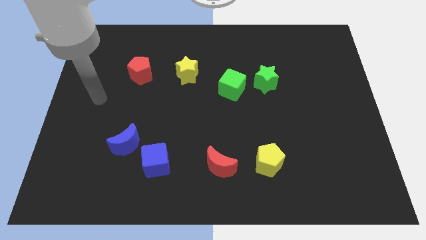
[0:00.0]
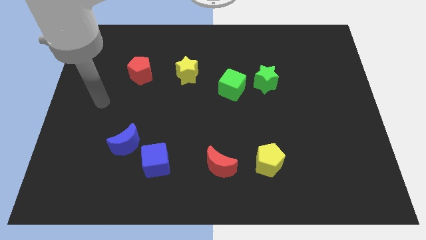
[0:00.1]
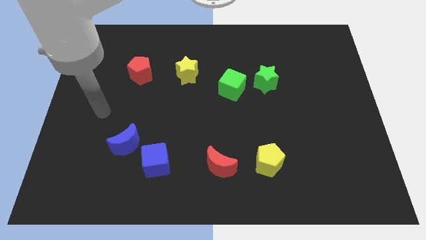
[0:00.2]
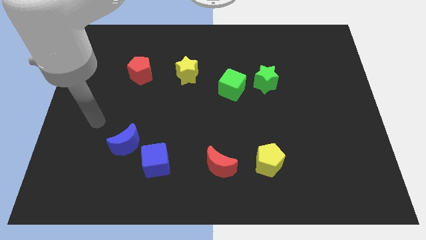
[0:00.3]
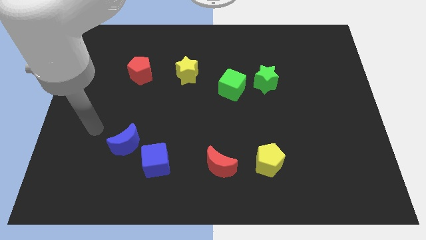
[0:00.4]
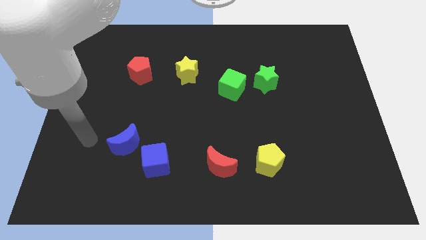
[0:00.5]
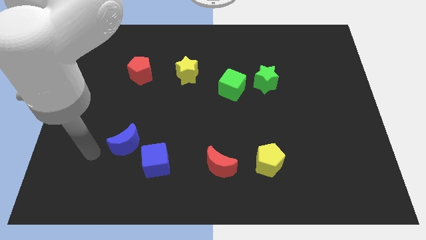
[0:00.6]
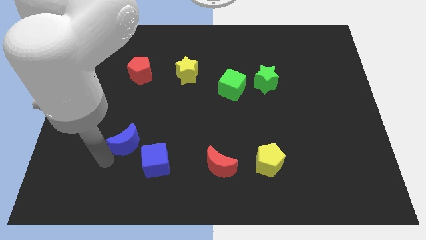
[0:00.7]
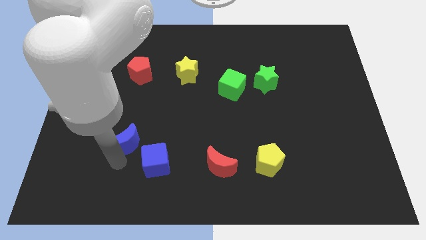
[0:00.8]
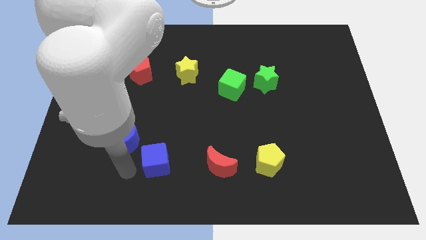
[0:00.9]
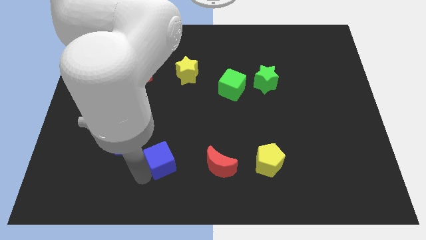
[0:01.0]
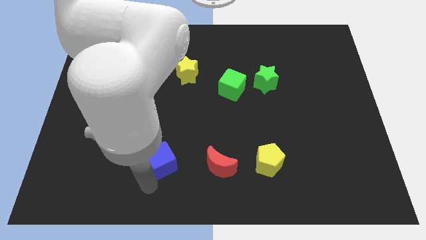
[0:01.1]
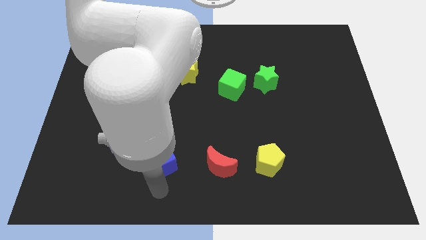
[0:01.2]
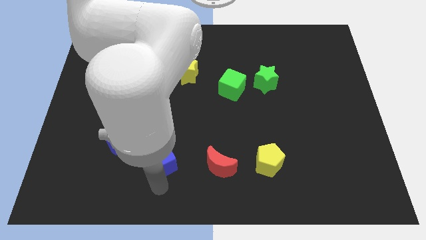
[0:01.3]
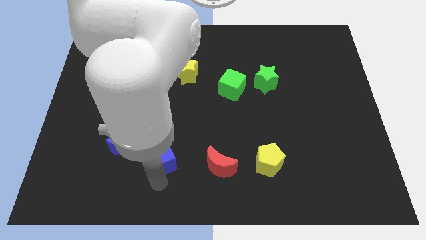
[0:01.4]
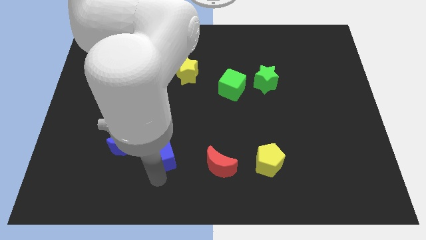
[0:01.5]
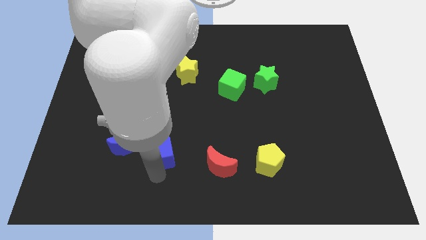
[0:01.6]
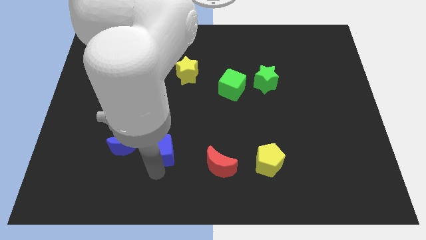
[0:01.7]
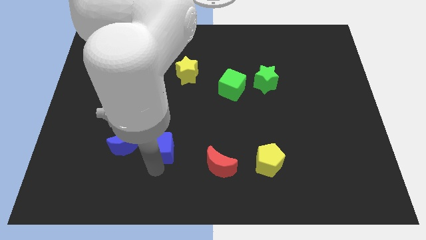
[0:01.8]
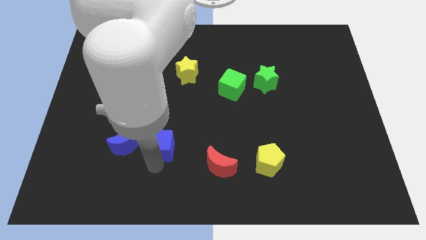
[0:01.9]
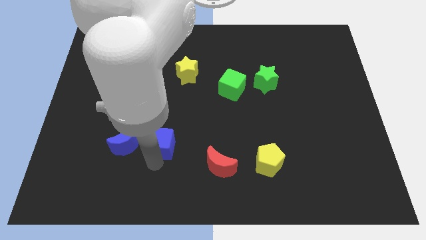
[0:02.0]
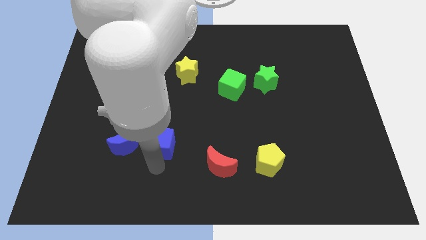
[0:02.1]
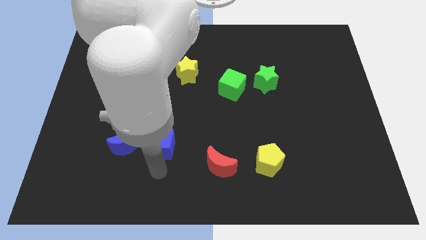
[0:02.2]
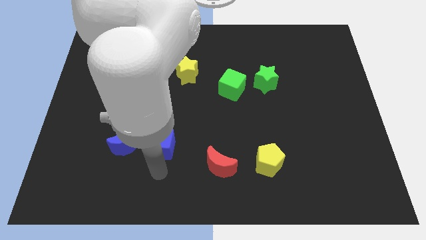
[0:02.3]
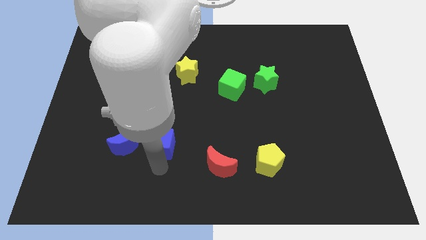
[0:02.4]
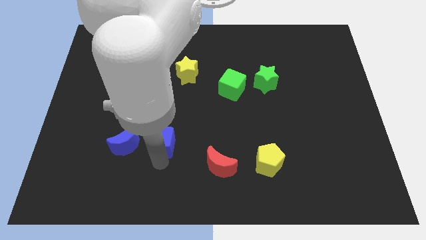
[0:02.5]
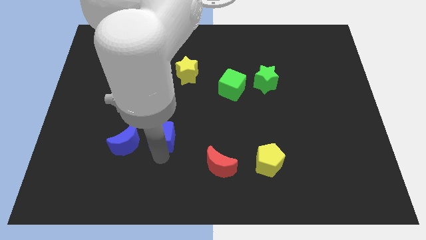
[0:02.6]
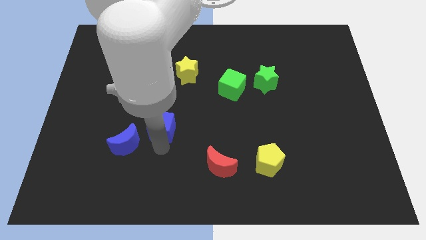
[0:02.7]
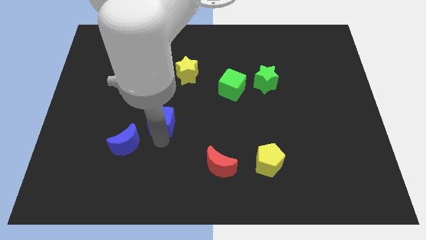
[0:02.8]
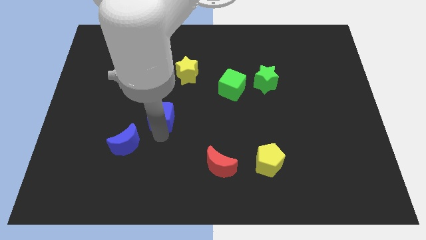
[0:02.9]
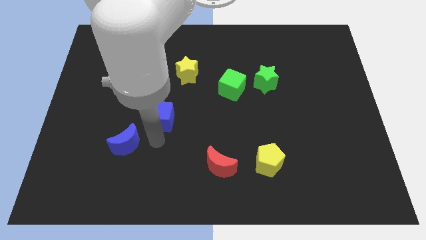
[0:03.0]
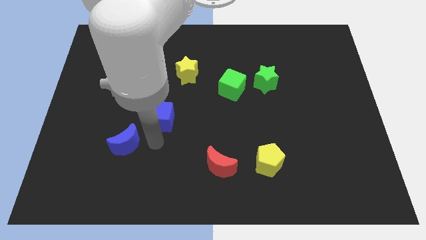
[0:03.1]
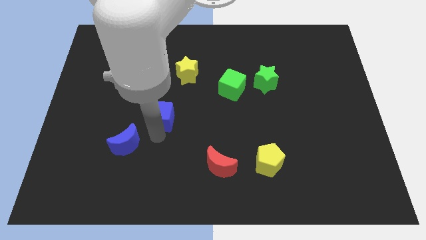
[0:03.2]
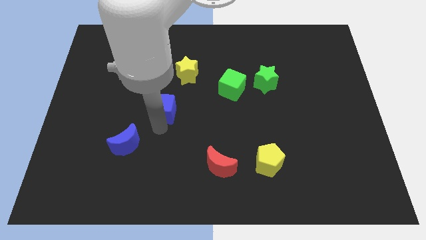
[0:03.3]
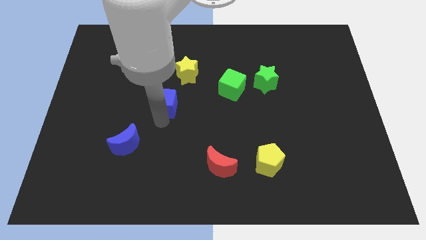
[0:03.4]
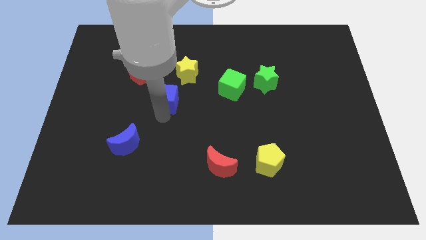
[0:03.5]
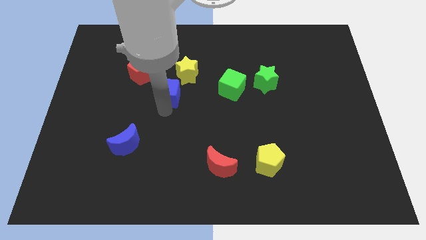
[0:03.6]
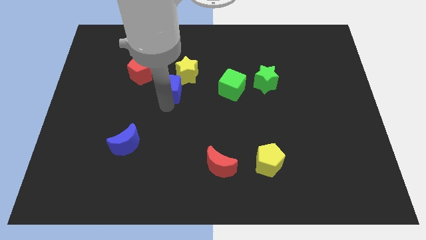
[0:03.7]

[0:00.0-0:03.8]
push the blue cube up

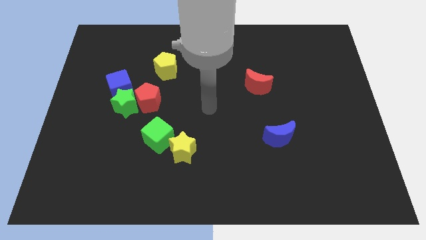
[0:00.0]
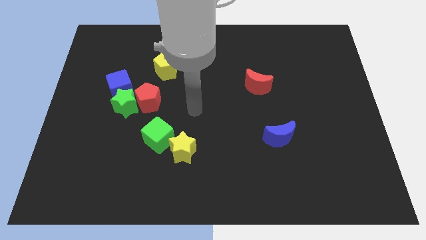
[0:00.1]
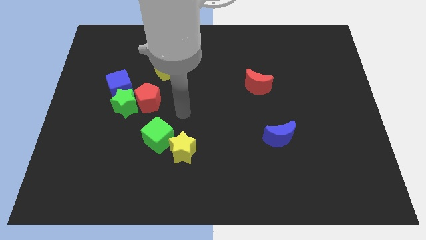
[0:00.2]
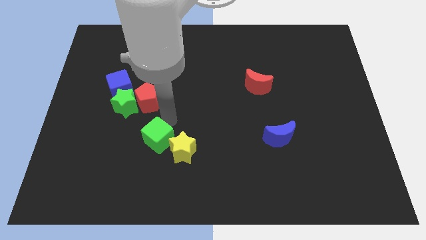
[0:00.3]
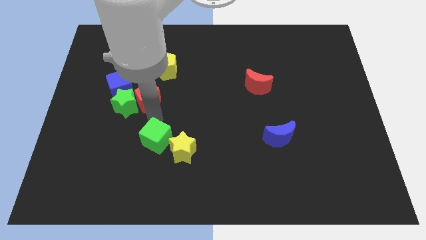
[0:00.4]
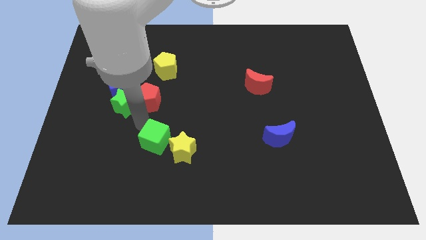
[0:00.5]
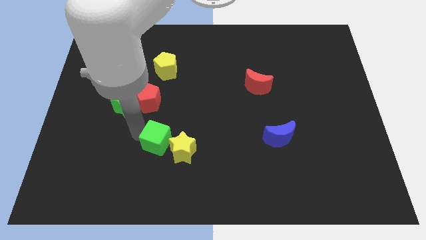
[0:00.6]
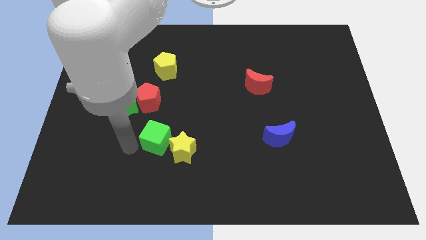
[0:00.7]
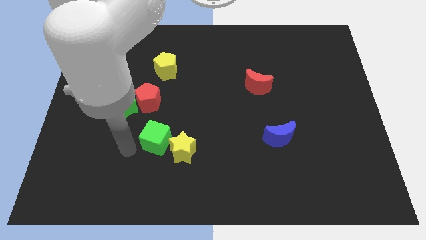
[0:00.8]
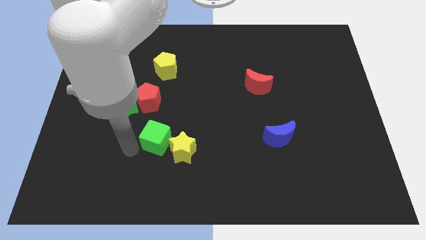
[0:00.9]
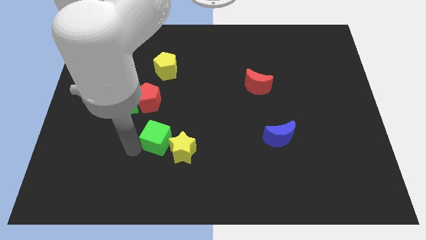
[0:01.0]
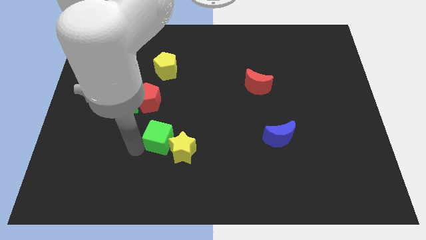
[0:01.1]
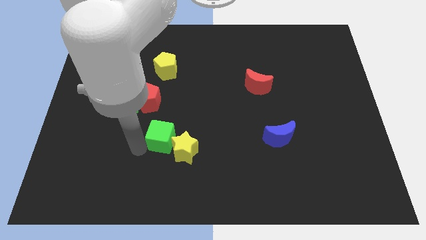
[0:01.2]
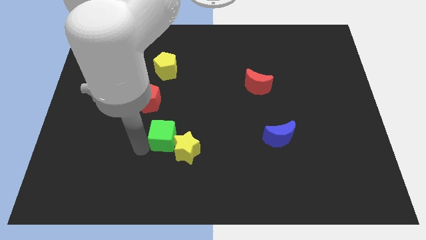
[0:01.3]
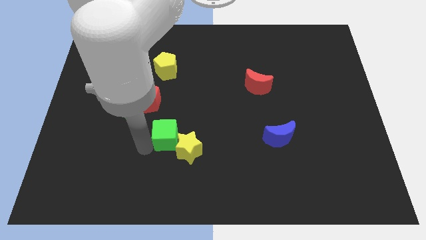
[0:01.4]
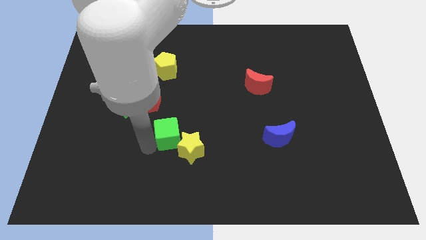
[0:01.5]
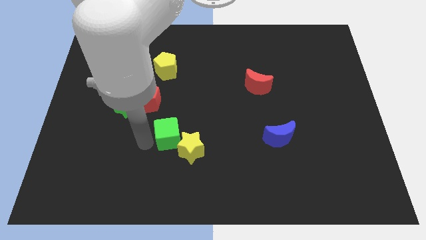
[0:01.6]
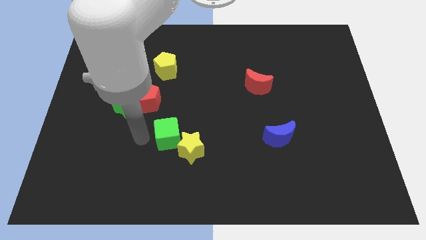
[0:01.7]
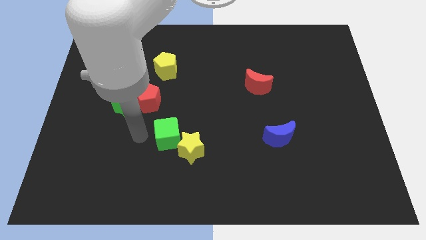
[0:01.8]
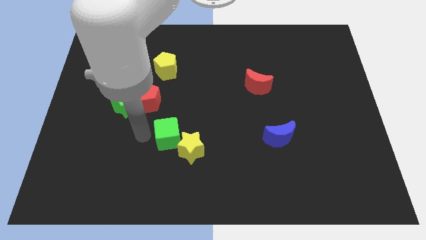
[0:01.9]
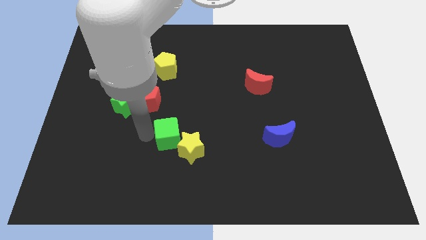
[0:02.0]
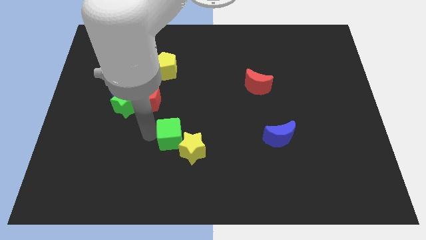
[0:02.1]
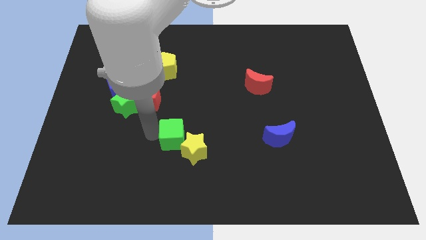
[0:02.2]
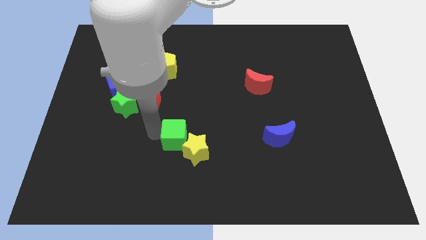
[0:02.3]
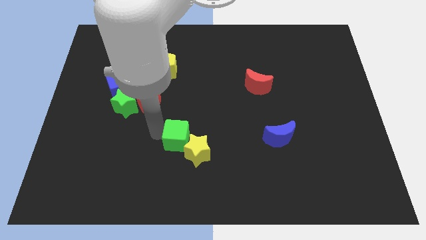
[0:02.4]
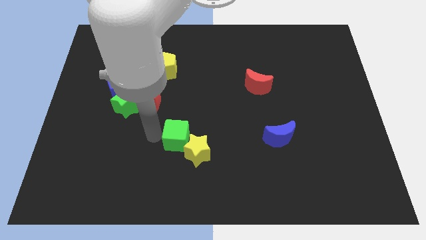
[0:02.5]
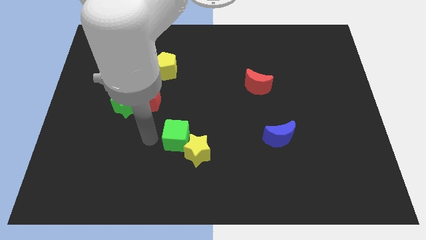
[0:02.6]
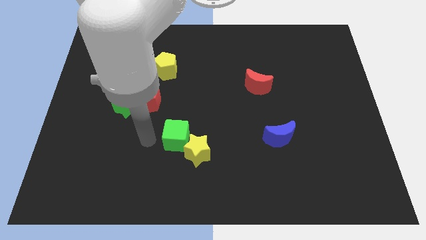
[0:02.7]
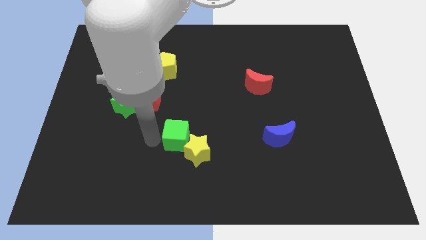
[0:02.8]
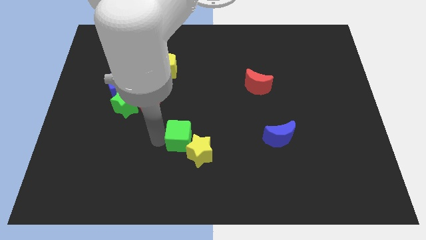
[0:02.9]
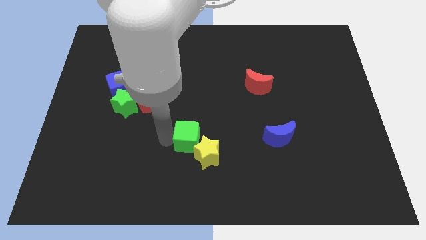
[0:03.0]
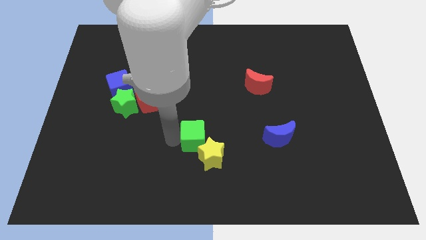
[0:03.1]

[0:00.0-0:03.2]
slightly slide the green cube right

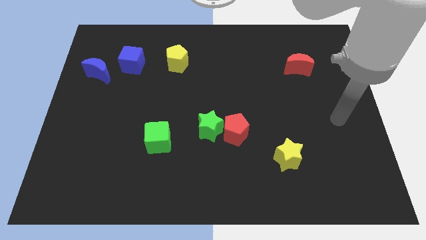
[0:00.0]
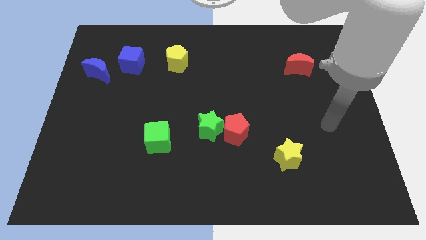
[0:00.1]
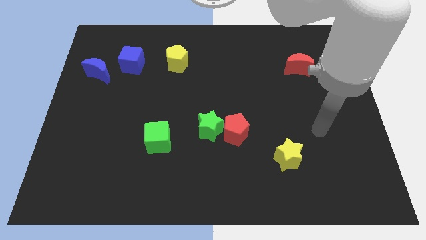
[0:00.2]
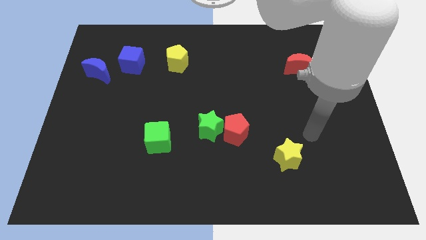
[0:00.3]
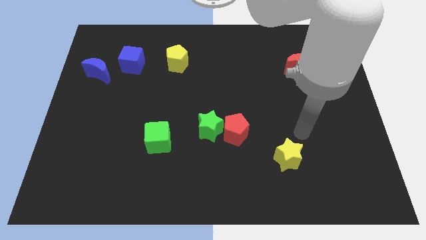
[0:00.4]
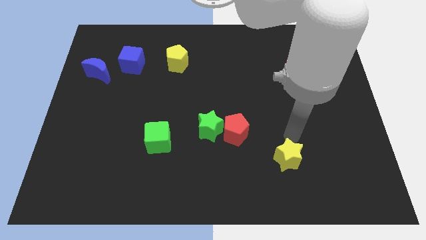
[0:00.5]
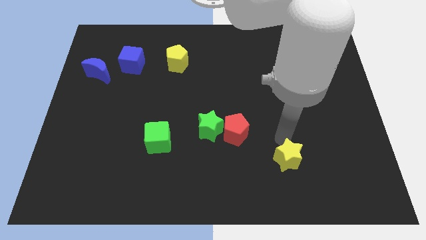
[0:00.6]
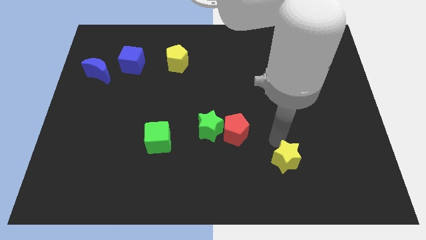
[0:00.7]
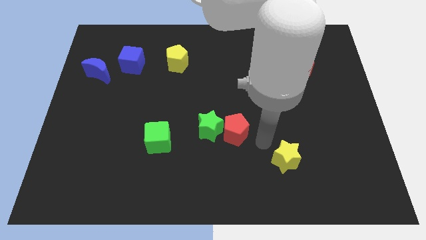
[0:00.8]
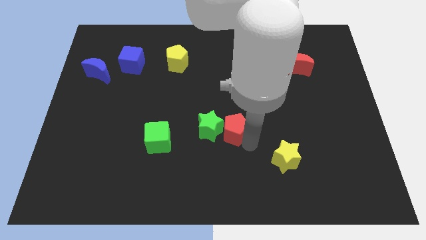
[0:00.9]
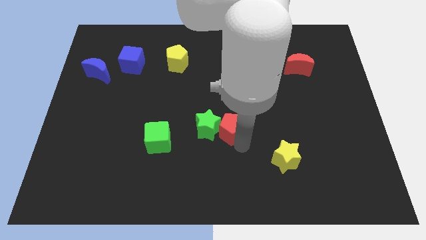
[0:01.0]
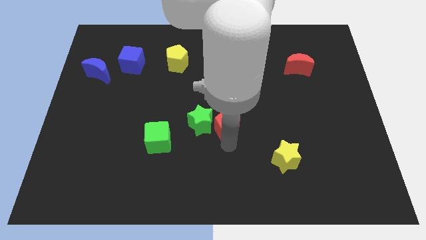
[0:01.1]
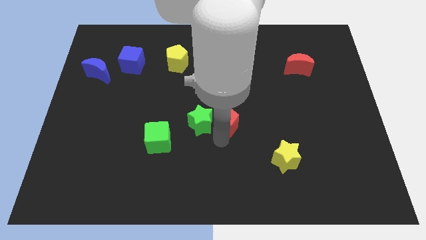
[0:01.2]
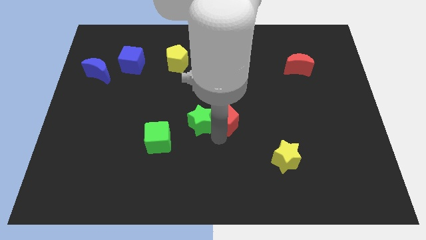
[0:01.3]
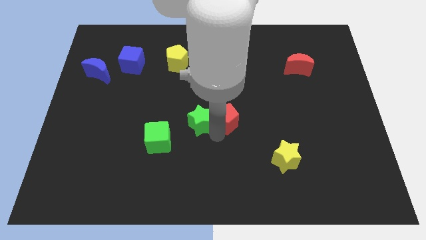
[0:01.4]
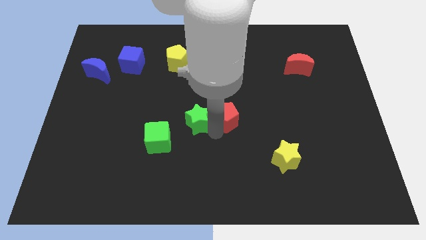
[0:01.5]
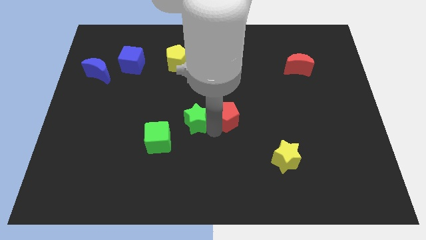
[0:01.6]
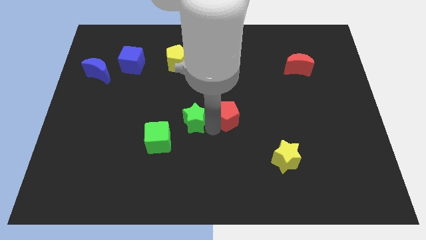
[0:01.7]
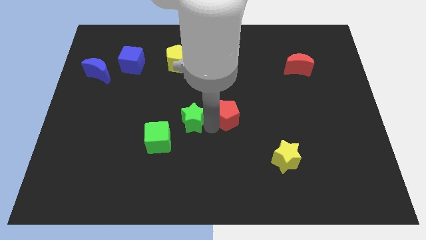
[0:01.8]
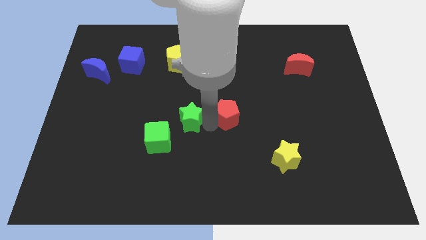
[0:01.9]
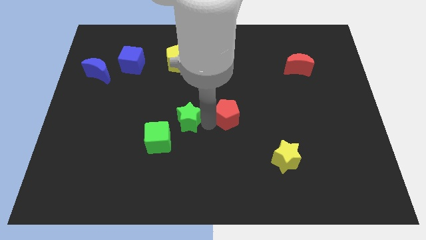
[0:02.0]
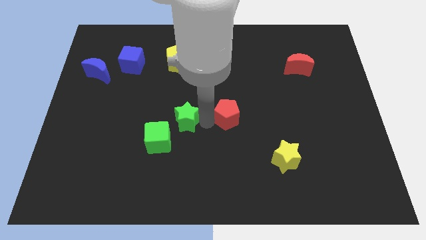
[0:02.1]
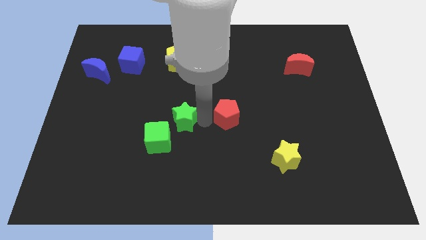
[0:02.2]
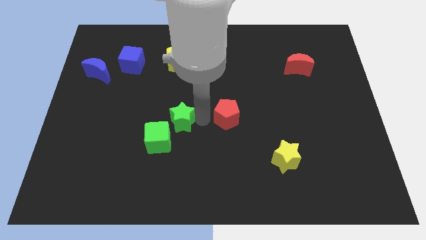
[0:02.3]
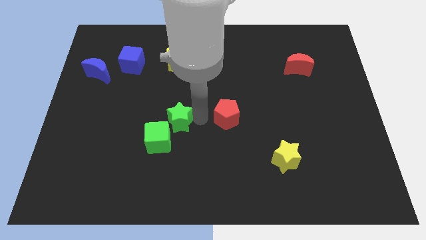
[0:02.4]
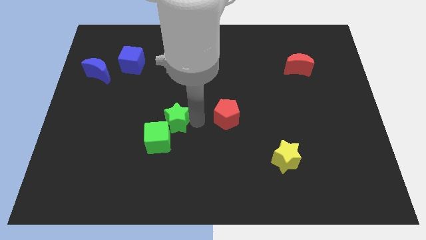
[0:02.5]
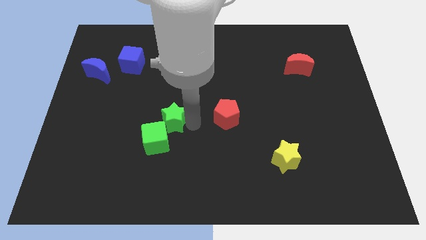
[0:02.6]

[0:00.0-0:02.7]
slightly push the green star upwards and left diagonally
